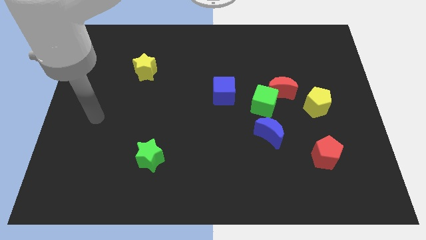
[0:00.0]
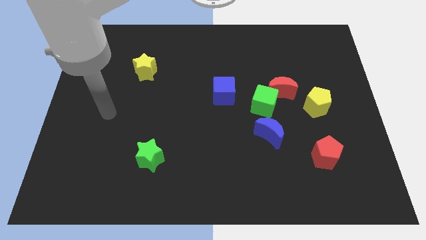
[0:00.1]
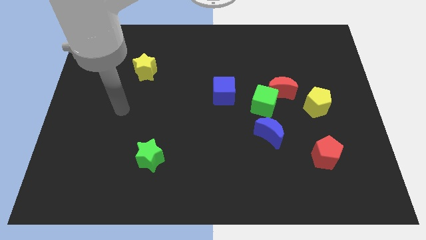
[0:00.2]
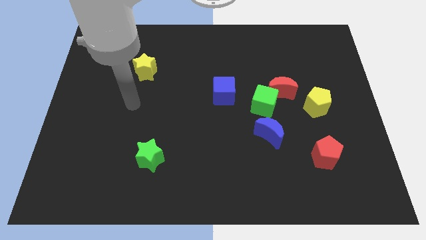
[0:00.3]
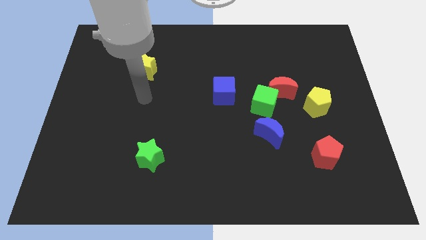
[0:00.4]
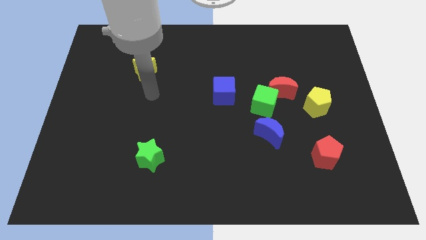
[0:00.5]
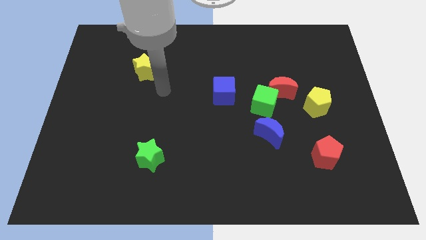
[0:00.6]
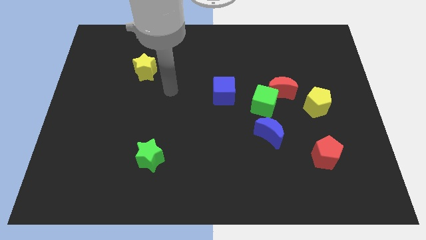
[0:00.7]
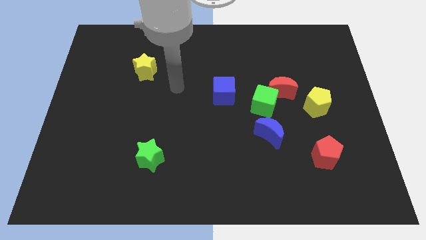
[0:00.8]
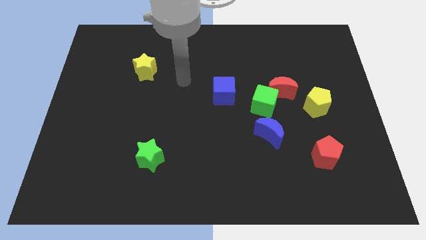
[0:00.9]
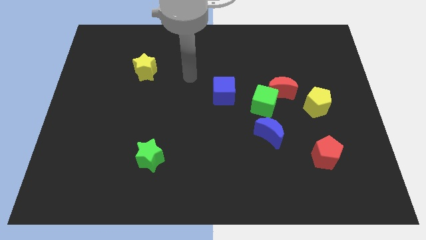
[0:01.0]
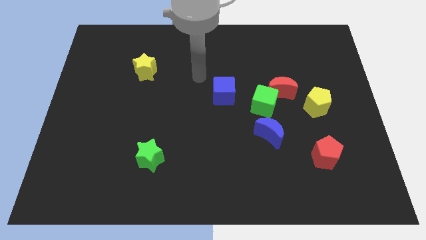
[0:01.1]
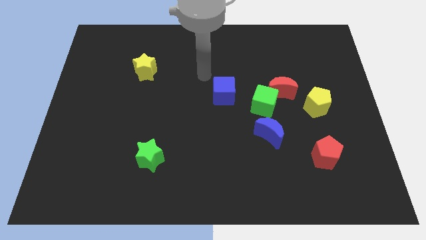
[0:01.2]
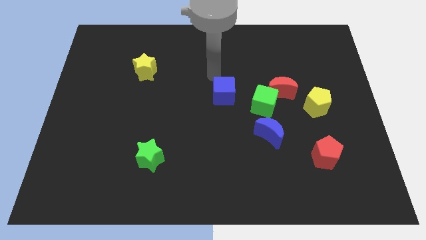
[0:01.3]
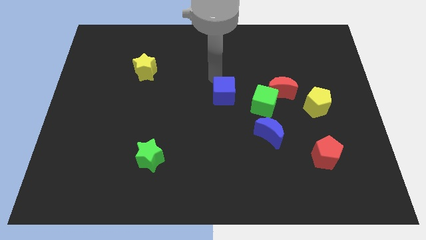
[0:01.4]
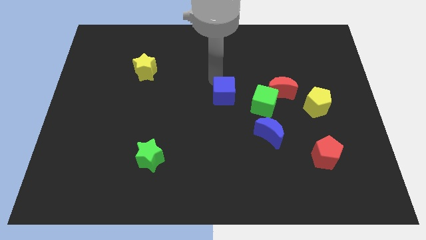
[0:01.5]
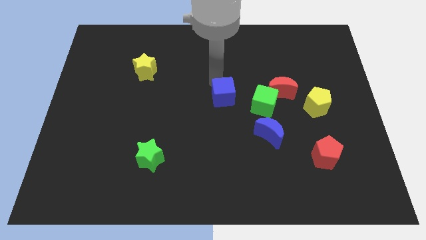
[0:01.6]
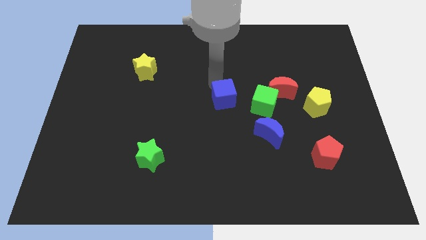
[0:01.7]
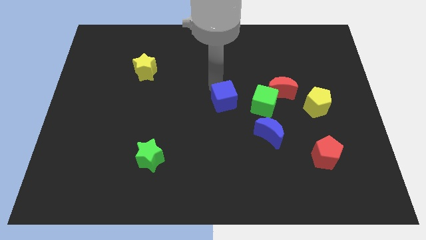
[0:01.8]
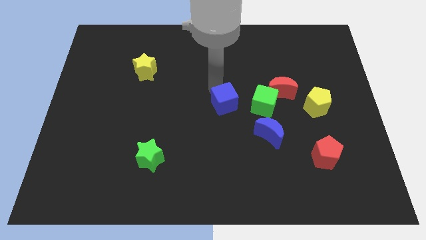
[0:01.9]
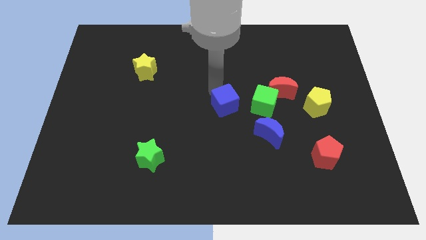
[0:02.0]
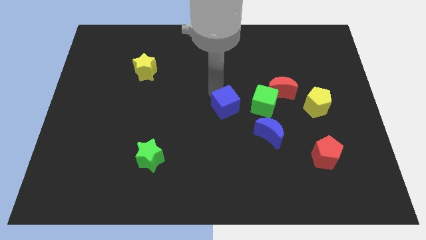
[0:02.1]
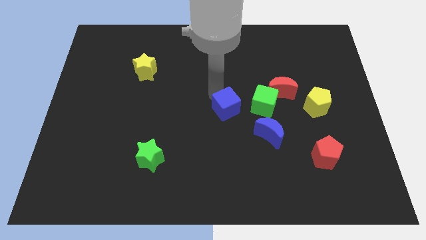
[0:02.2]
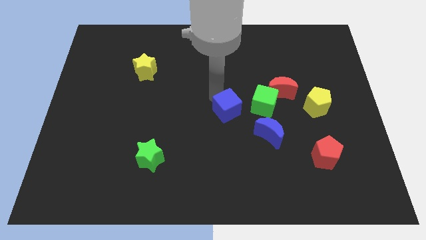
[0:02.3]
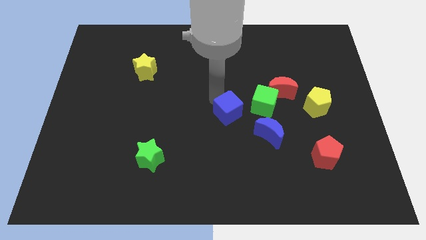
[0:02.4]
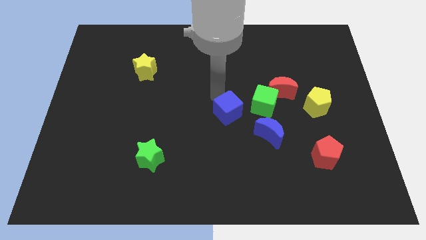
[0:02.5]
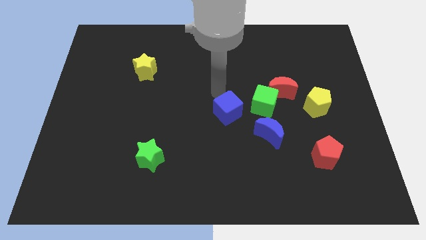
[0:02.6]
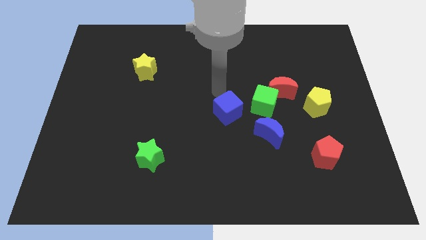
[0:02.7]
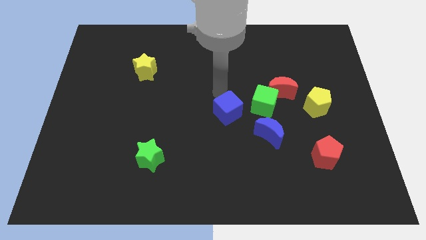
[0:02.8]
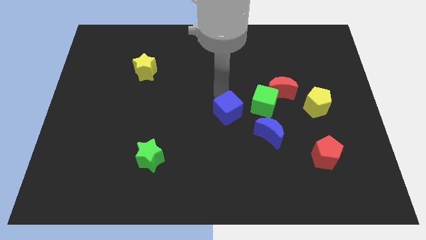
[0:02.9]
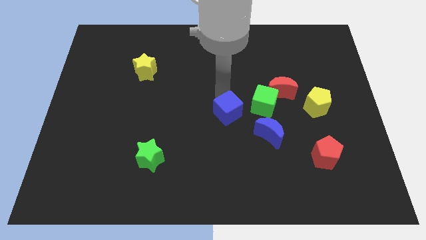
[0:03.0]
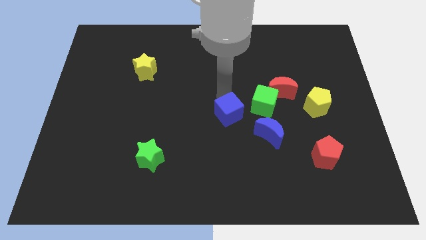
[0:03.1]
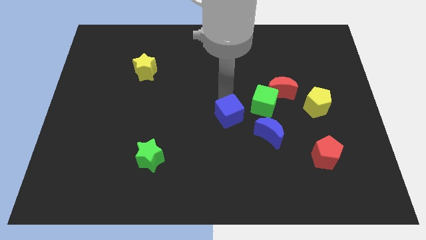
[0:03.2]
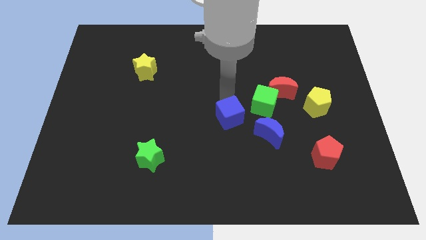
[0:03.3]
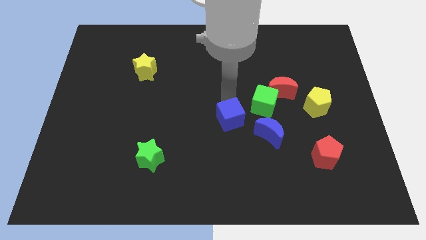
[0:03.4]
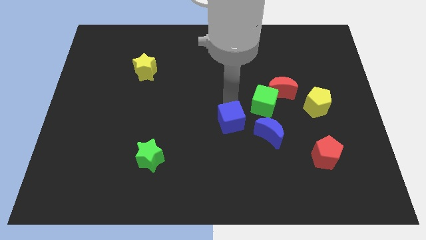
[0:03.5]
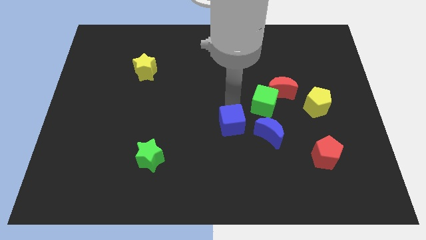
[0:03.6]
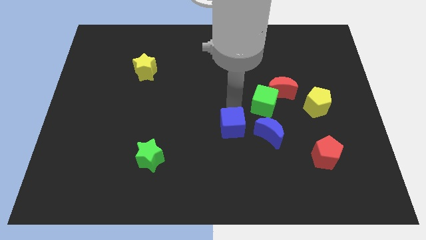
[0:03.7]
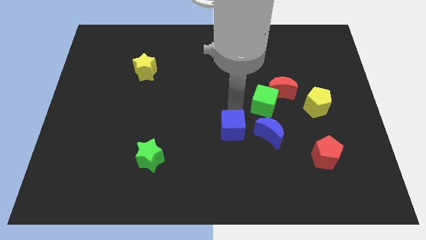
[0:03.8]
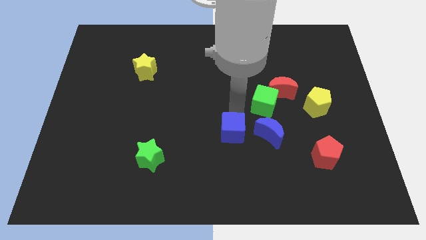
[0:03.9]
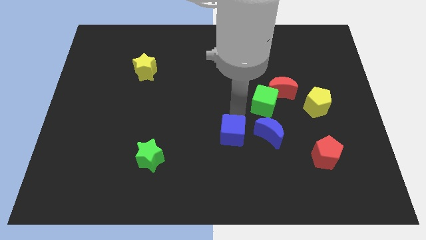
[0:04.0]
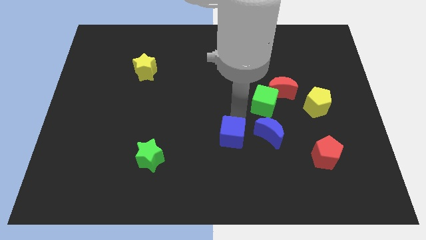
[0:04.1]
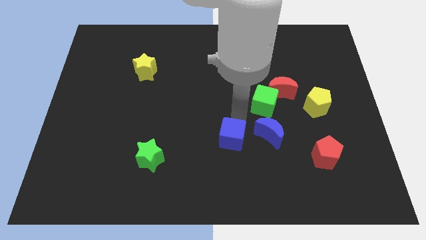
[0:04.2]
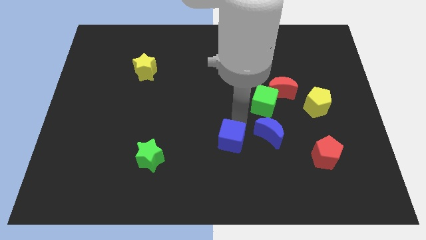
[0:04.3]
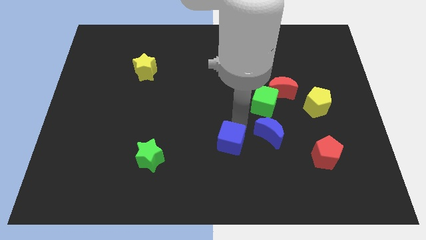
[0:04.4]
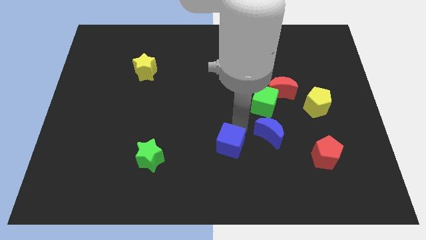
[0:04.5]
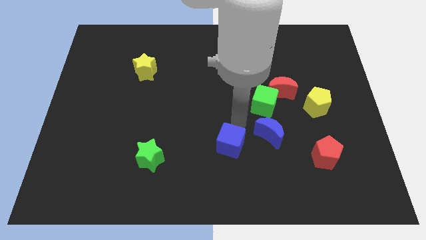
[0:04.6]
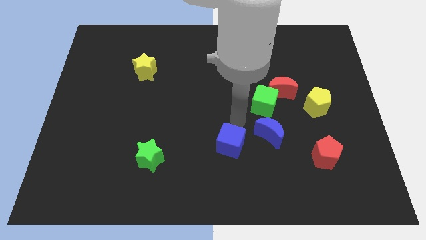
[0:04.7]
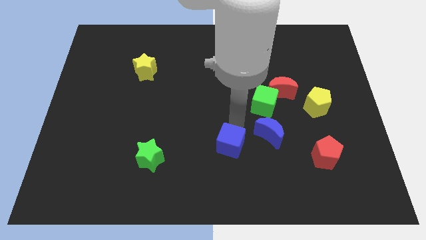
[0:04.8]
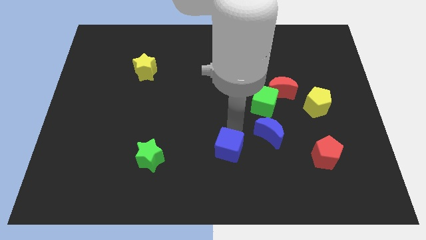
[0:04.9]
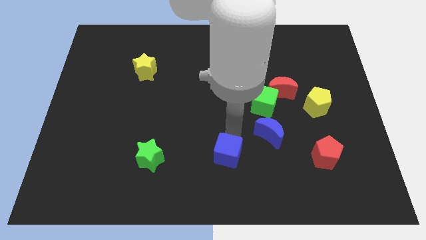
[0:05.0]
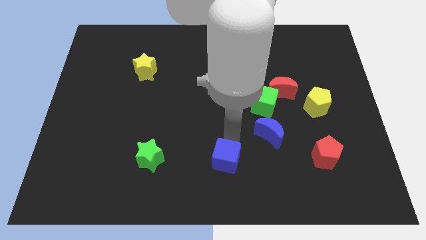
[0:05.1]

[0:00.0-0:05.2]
move the blue cube to the bottom
